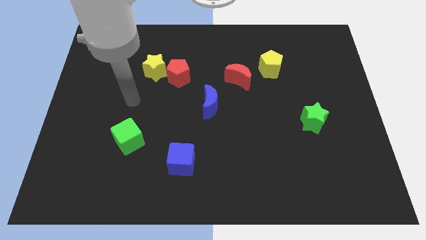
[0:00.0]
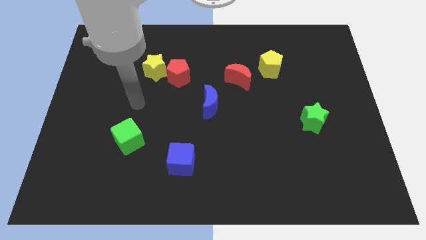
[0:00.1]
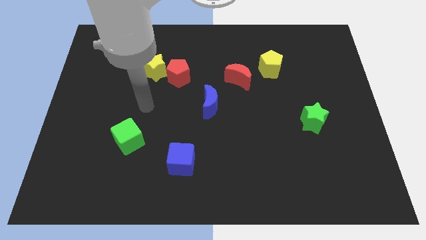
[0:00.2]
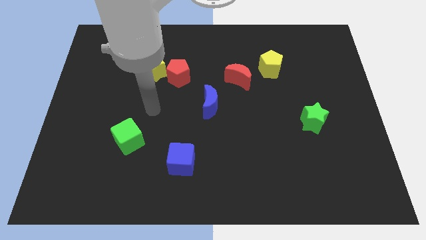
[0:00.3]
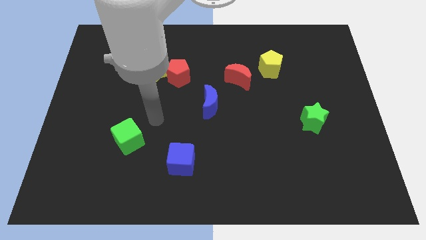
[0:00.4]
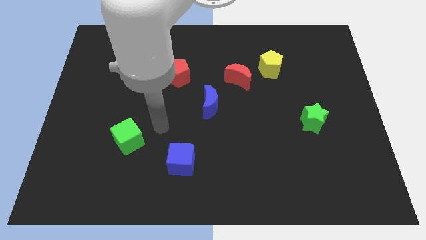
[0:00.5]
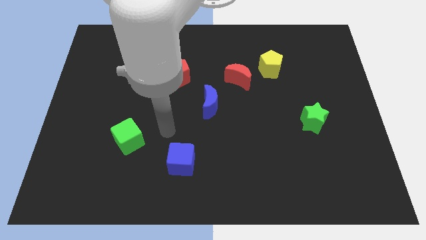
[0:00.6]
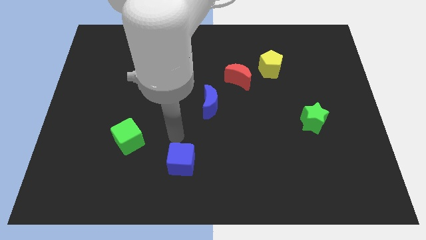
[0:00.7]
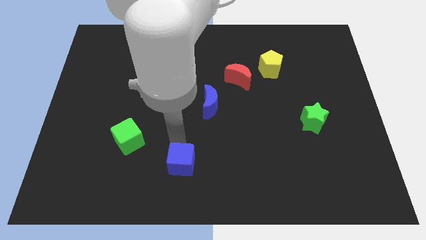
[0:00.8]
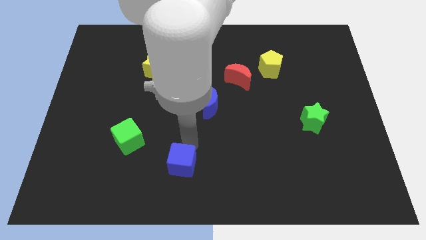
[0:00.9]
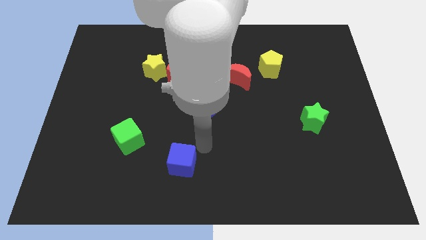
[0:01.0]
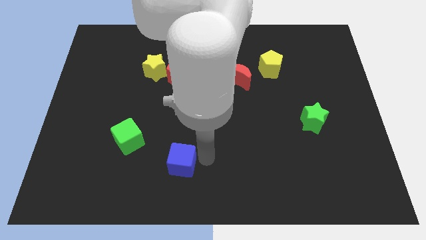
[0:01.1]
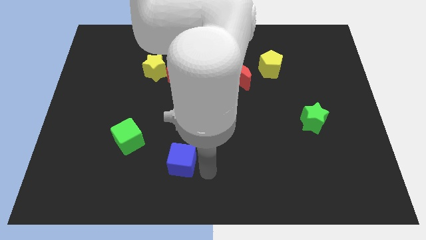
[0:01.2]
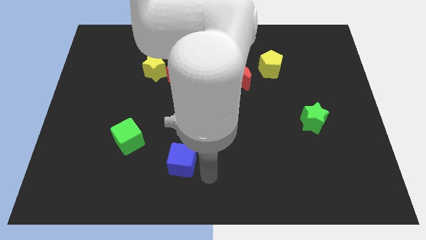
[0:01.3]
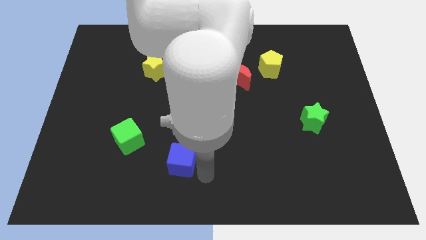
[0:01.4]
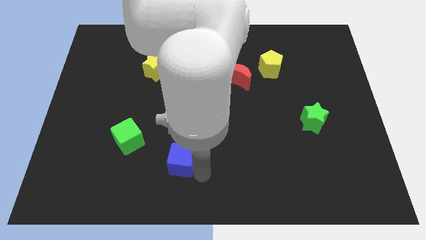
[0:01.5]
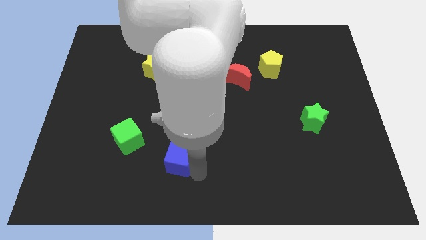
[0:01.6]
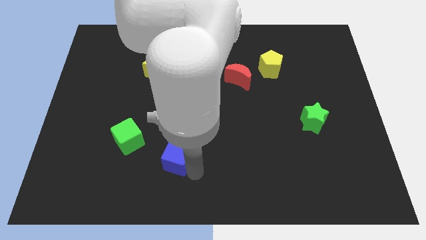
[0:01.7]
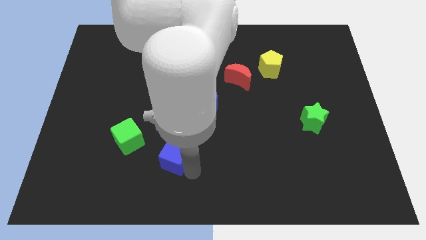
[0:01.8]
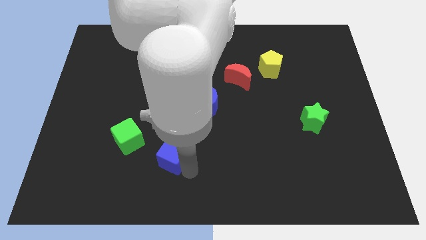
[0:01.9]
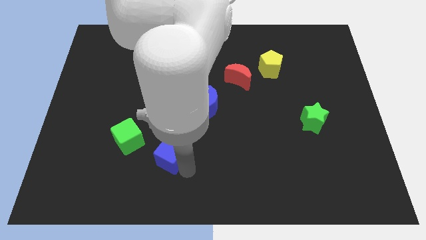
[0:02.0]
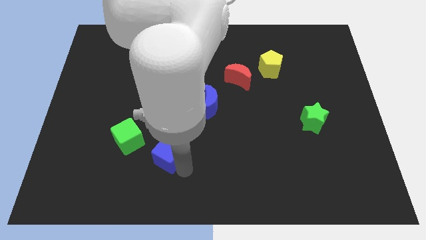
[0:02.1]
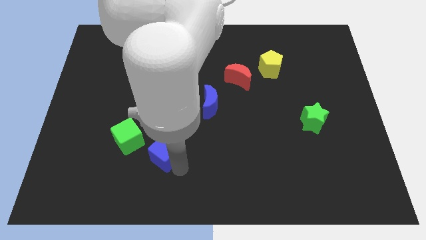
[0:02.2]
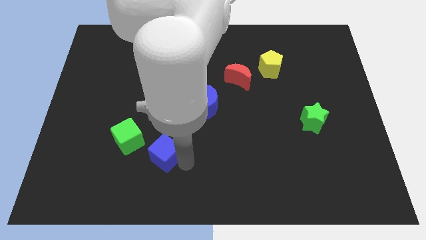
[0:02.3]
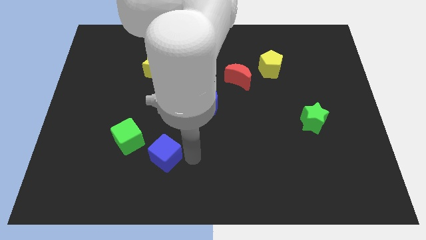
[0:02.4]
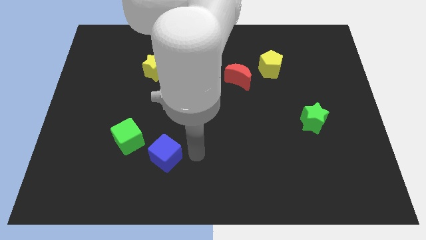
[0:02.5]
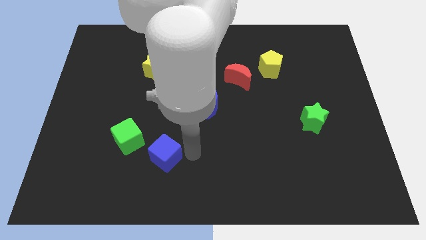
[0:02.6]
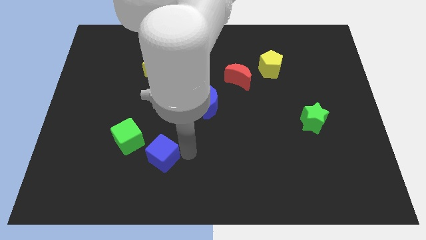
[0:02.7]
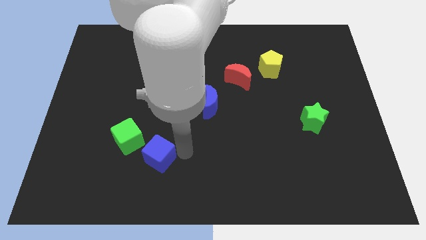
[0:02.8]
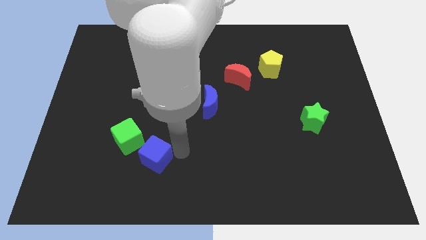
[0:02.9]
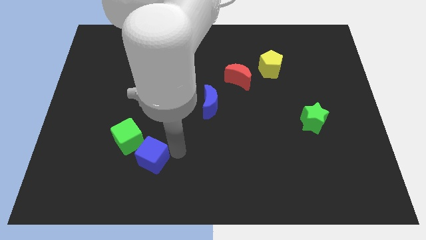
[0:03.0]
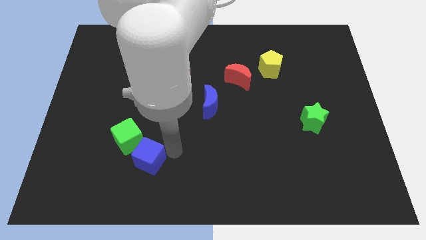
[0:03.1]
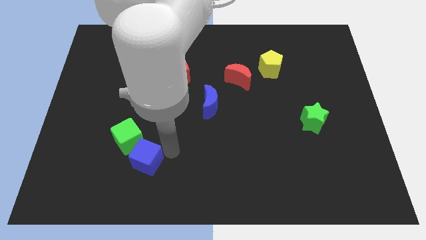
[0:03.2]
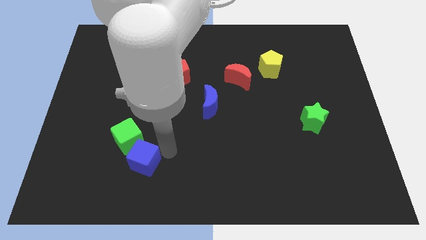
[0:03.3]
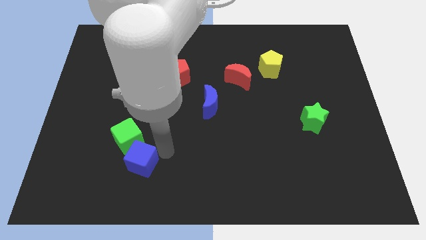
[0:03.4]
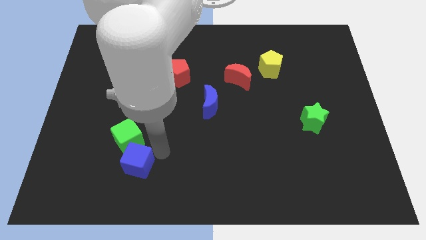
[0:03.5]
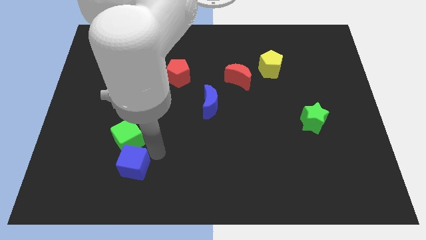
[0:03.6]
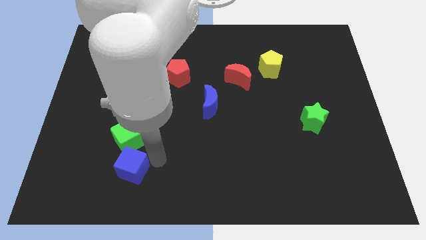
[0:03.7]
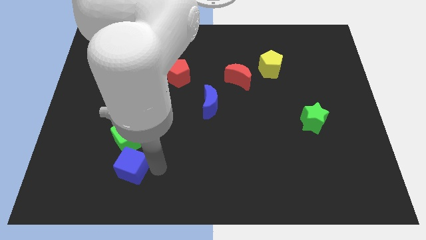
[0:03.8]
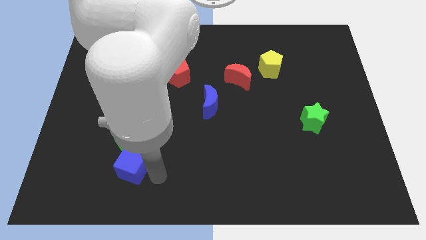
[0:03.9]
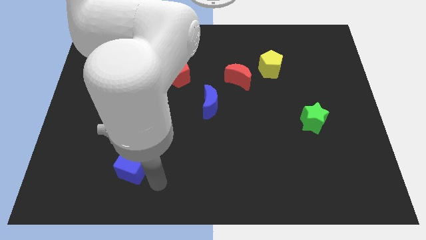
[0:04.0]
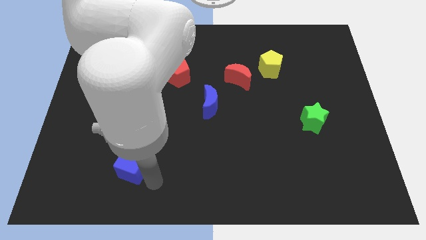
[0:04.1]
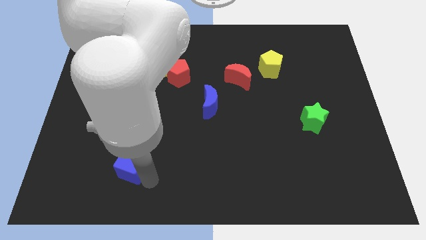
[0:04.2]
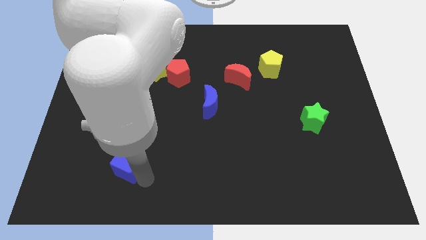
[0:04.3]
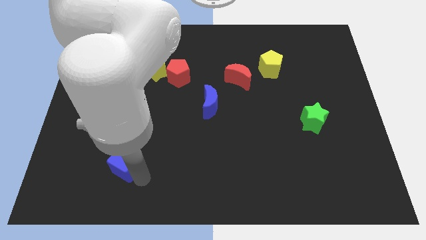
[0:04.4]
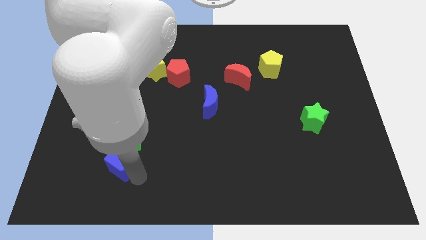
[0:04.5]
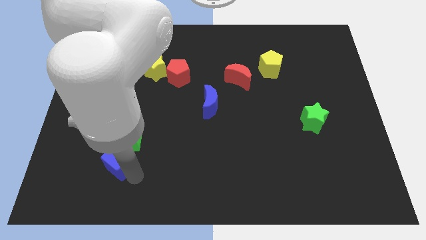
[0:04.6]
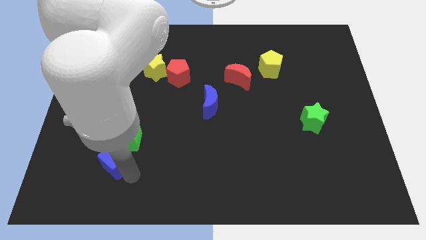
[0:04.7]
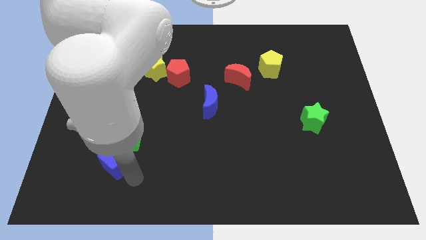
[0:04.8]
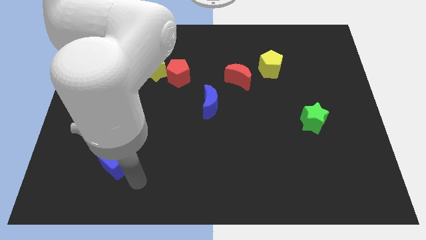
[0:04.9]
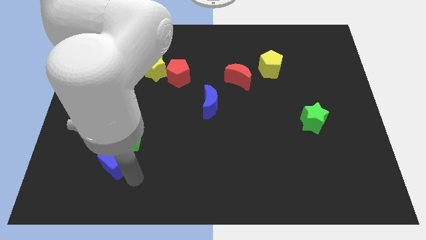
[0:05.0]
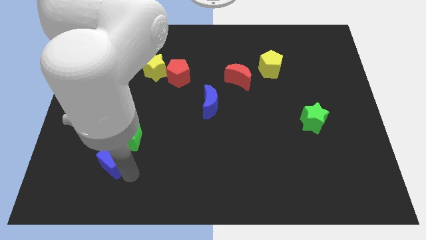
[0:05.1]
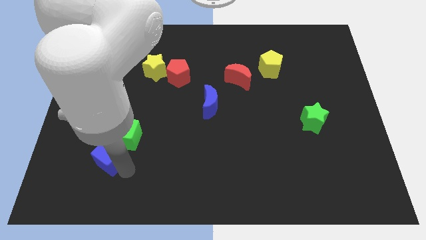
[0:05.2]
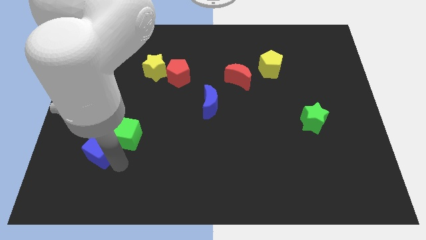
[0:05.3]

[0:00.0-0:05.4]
move the blue cube just left of the green cube

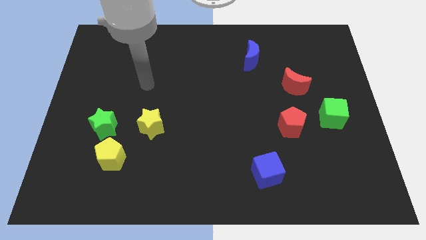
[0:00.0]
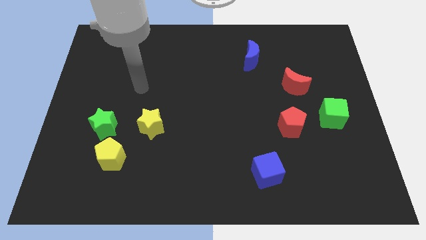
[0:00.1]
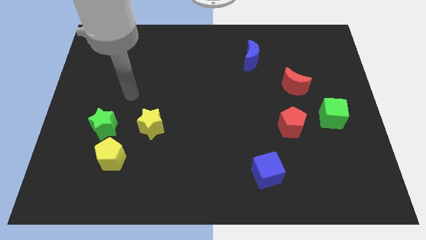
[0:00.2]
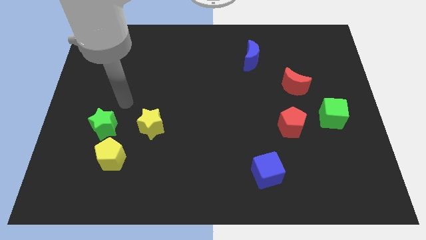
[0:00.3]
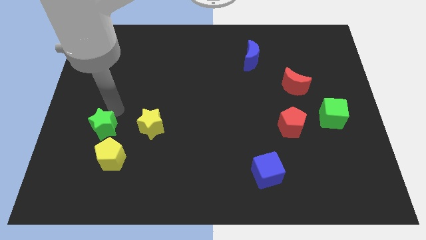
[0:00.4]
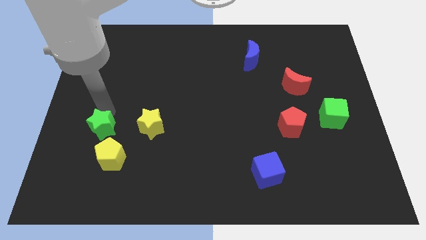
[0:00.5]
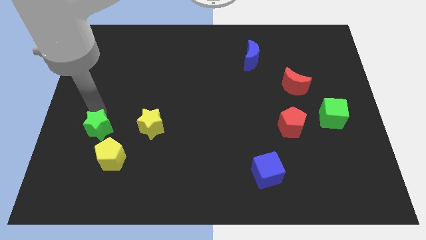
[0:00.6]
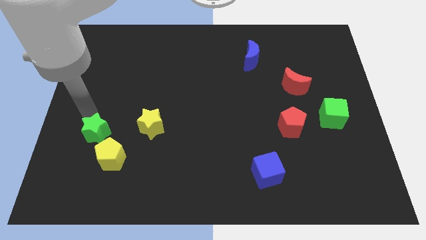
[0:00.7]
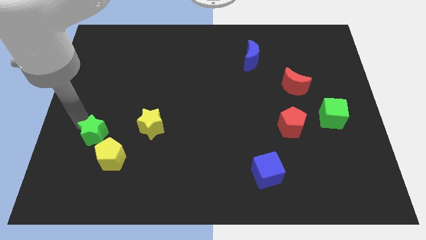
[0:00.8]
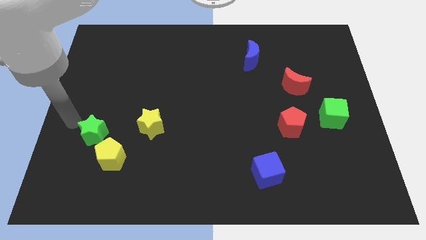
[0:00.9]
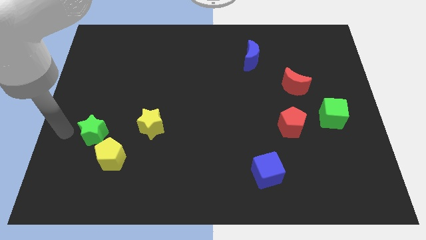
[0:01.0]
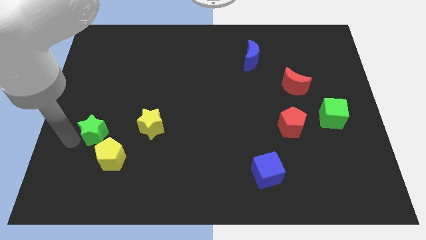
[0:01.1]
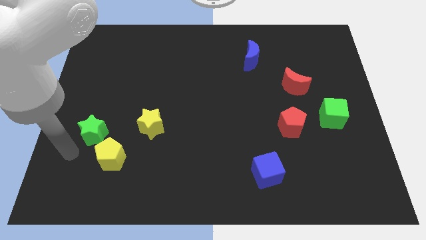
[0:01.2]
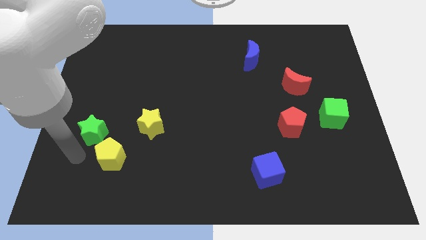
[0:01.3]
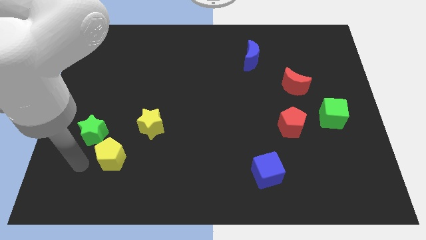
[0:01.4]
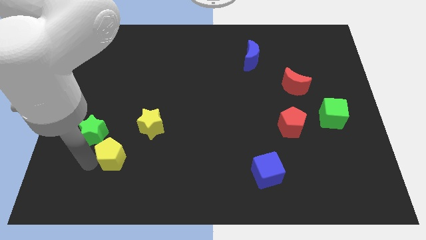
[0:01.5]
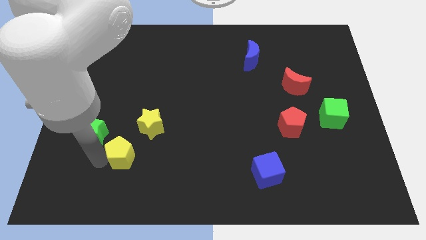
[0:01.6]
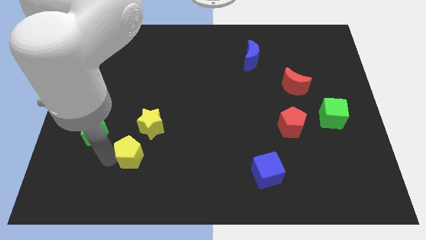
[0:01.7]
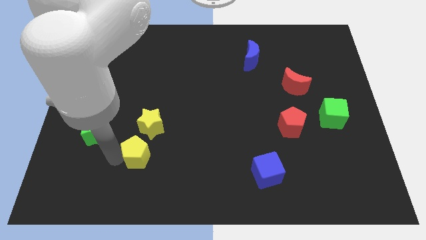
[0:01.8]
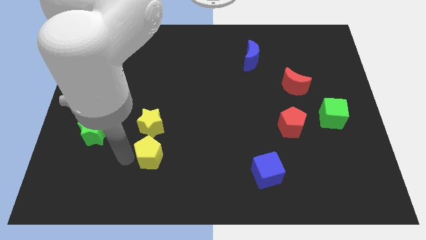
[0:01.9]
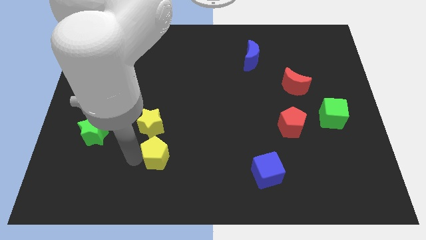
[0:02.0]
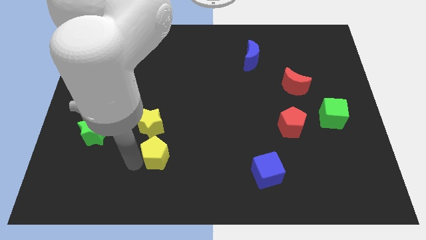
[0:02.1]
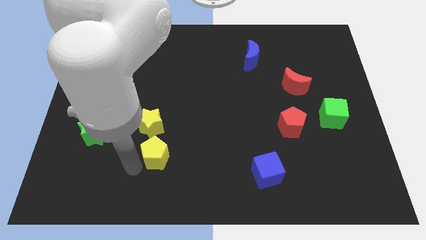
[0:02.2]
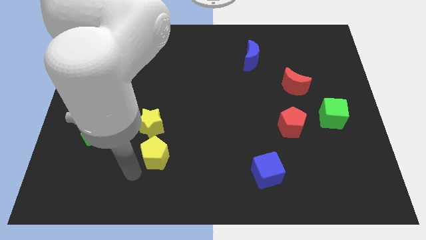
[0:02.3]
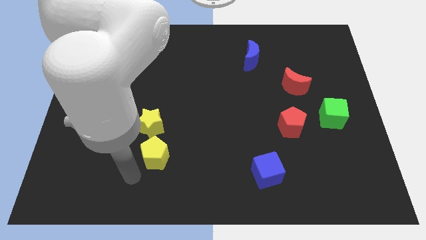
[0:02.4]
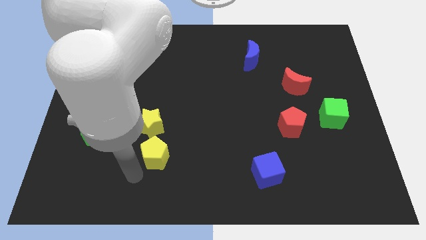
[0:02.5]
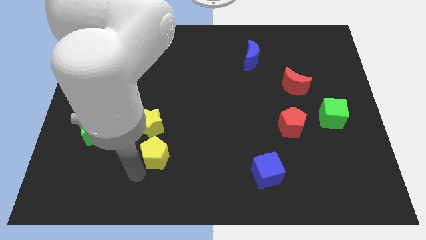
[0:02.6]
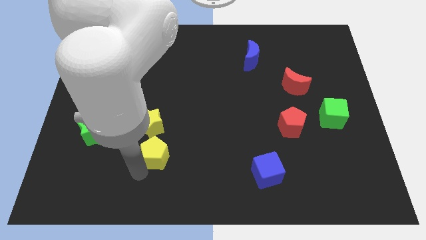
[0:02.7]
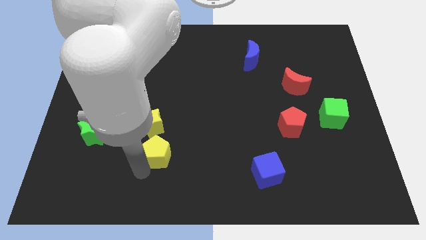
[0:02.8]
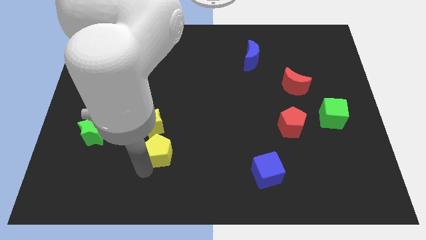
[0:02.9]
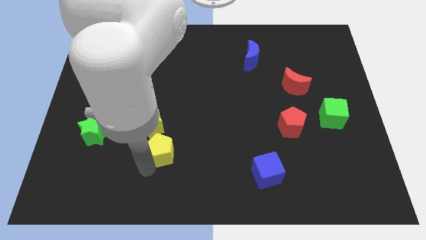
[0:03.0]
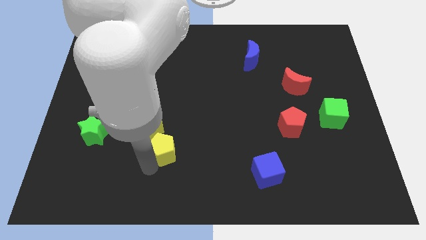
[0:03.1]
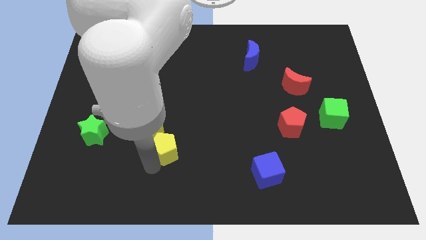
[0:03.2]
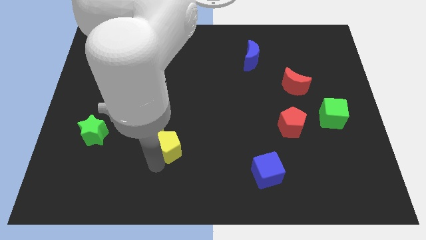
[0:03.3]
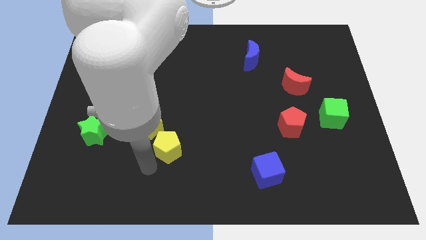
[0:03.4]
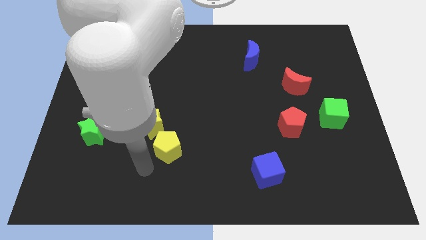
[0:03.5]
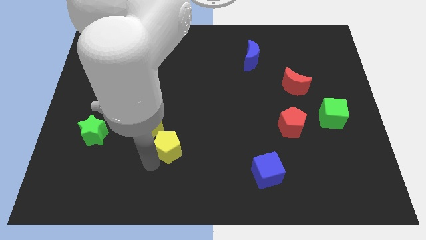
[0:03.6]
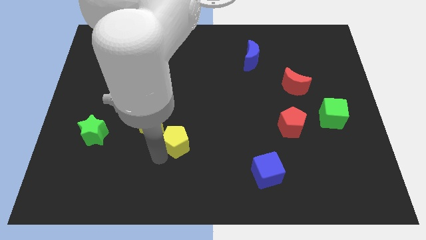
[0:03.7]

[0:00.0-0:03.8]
put the yellow pentagon just right of the yellow star
